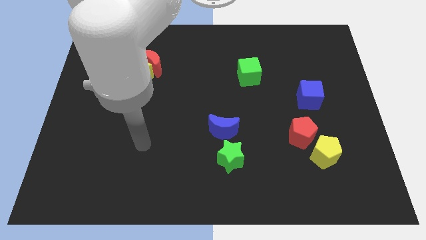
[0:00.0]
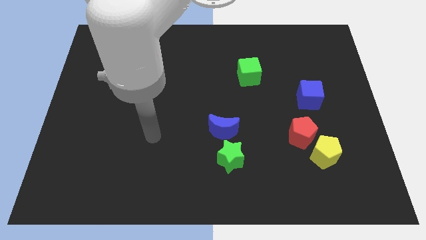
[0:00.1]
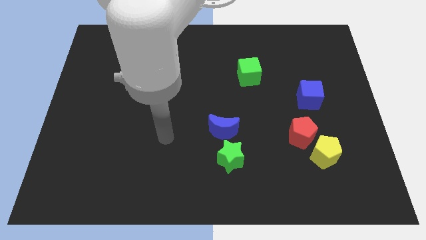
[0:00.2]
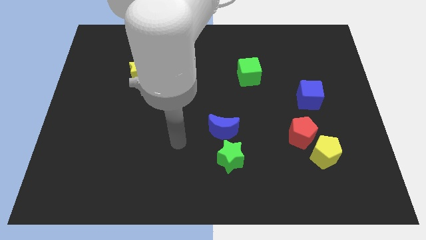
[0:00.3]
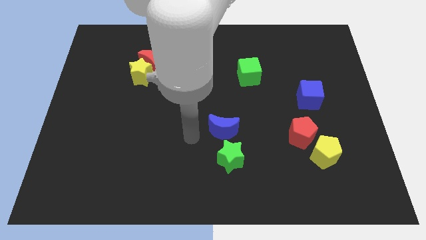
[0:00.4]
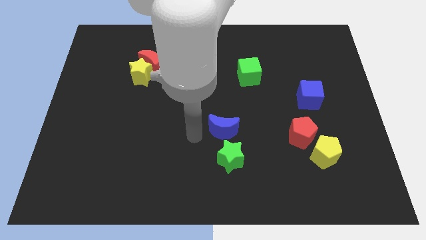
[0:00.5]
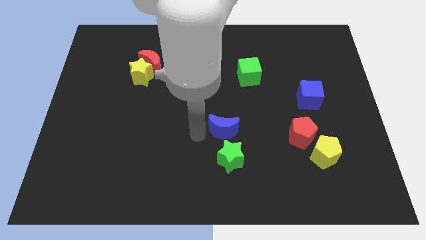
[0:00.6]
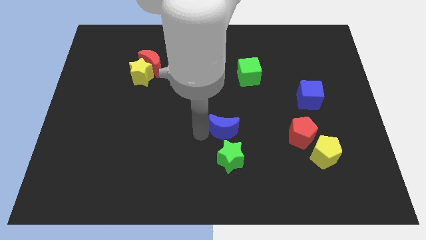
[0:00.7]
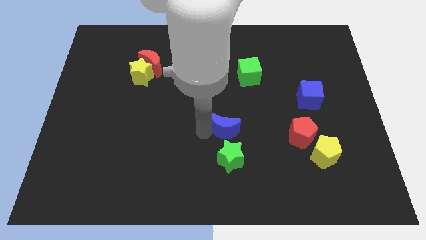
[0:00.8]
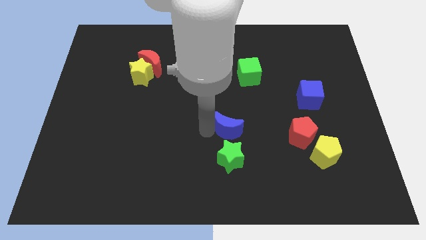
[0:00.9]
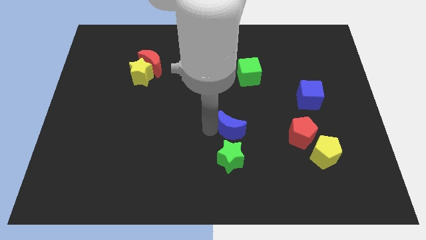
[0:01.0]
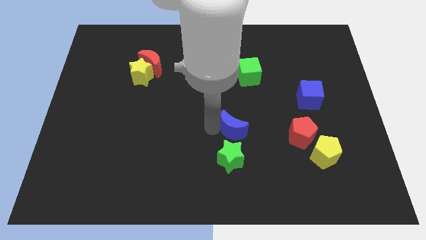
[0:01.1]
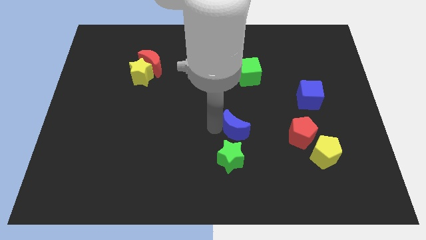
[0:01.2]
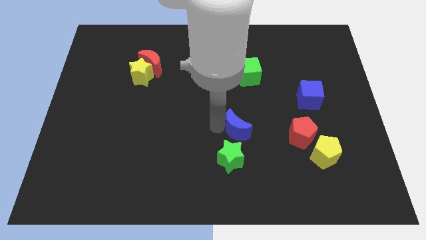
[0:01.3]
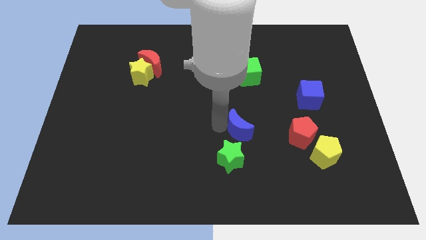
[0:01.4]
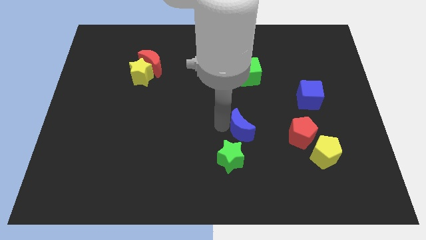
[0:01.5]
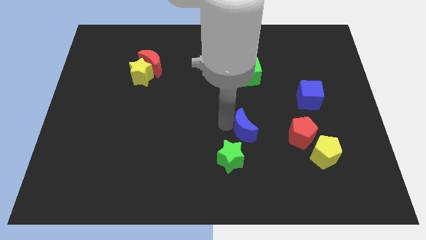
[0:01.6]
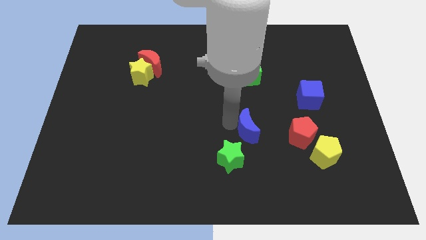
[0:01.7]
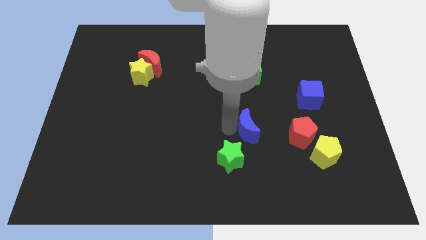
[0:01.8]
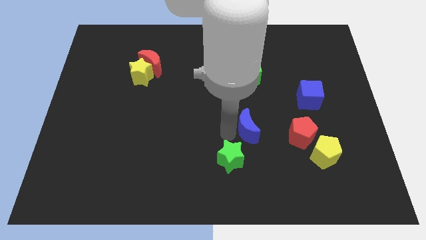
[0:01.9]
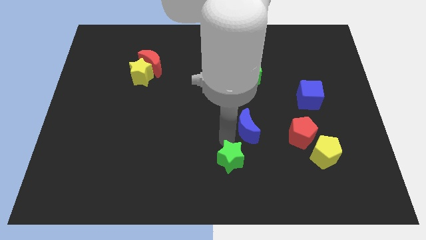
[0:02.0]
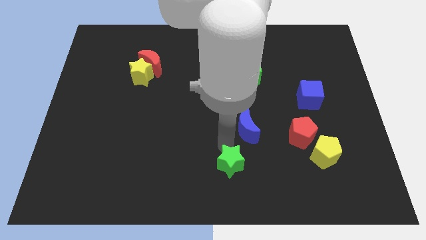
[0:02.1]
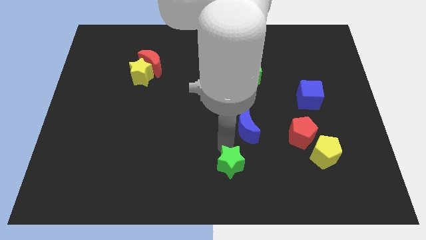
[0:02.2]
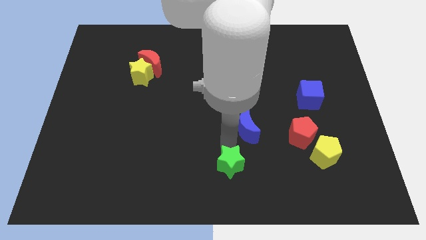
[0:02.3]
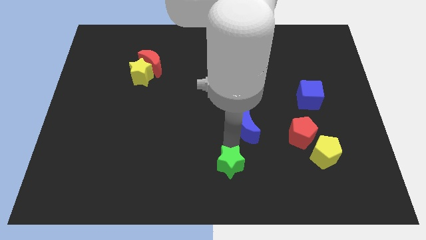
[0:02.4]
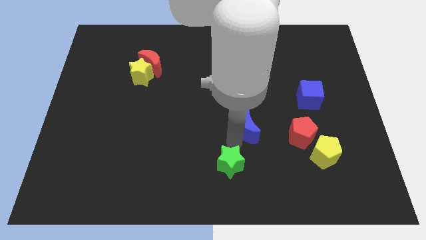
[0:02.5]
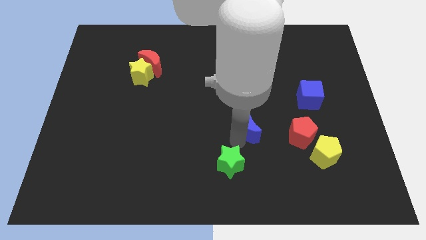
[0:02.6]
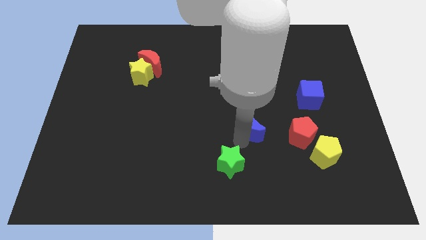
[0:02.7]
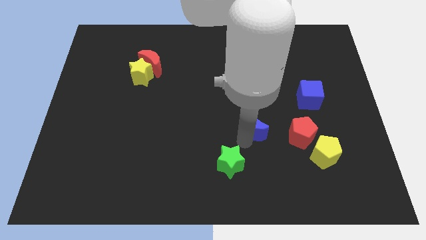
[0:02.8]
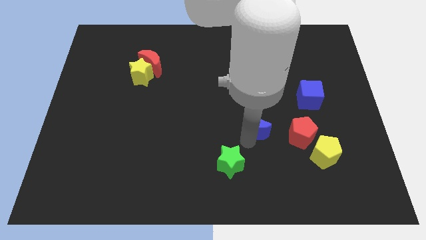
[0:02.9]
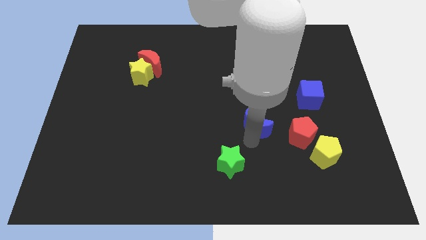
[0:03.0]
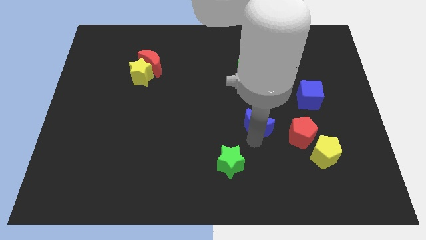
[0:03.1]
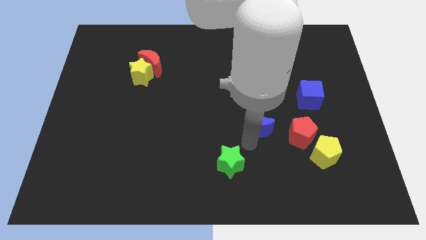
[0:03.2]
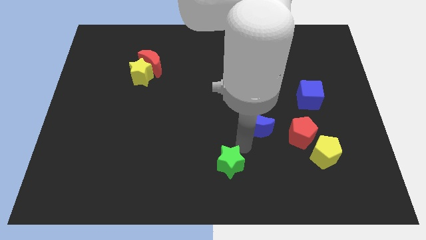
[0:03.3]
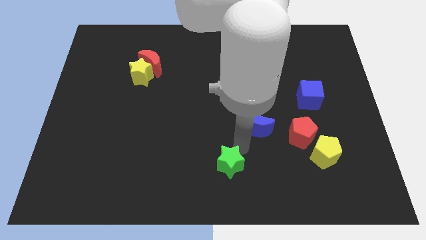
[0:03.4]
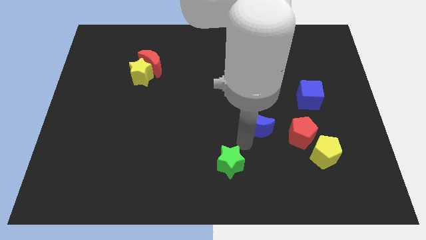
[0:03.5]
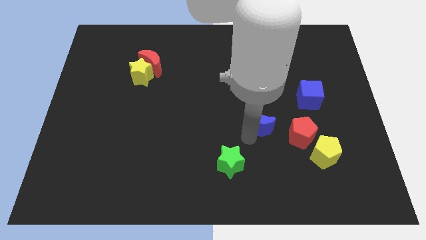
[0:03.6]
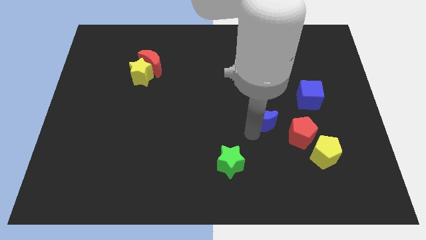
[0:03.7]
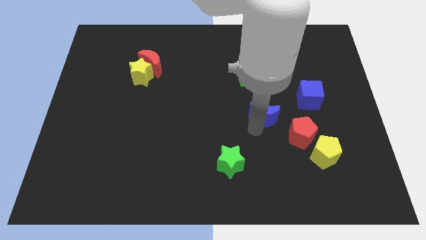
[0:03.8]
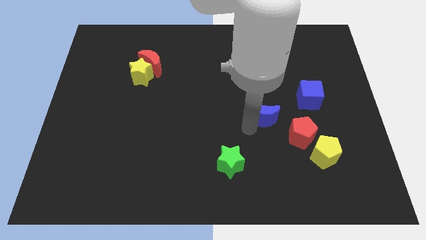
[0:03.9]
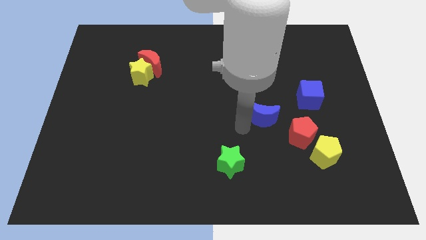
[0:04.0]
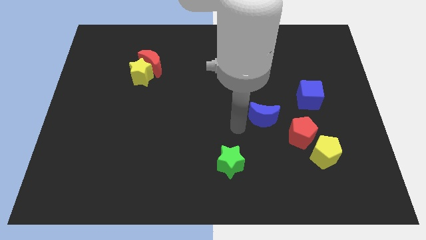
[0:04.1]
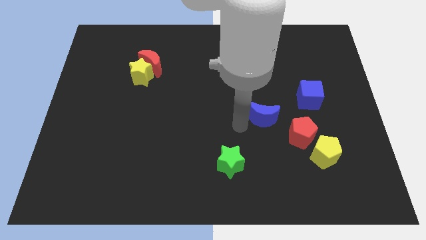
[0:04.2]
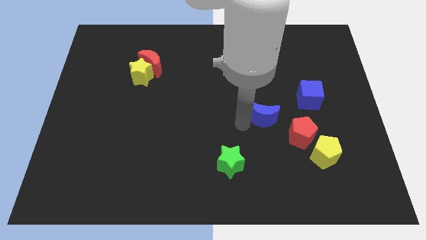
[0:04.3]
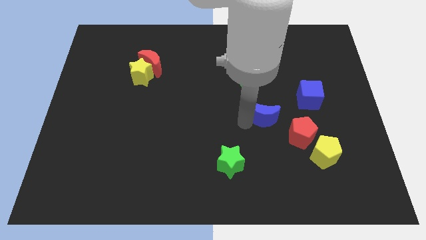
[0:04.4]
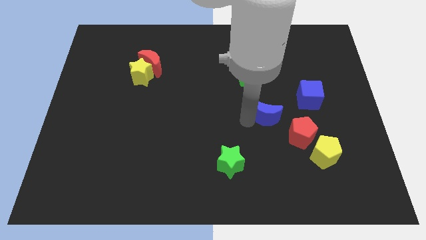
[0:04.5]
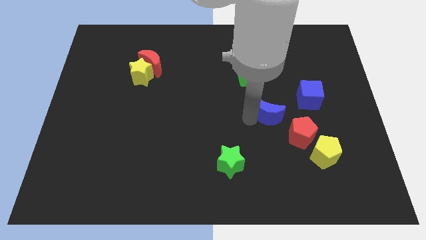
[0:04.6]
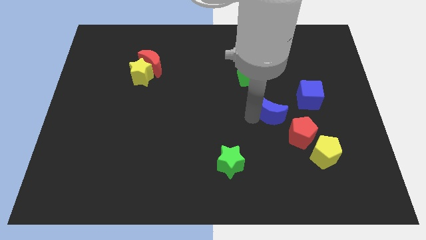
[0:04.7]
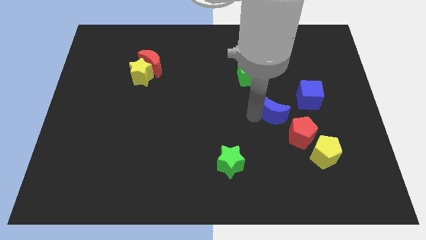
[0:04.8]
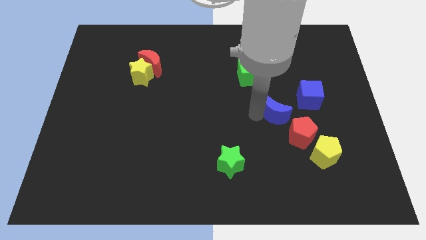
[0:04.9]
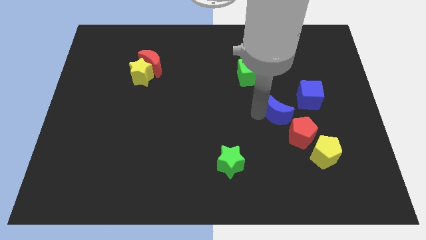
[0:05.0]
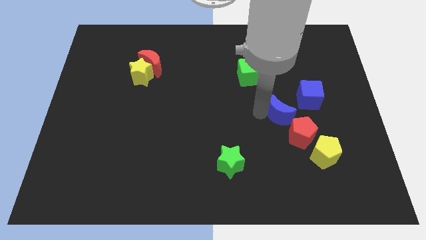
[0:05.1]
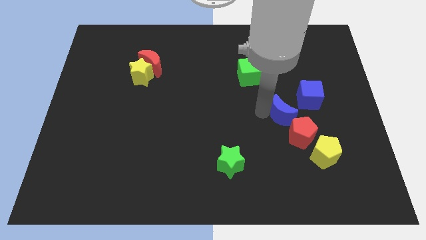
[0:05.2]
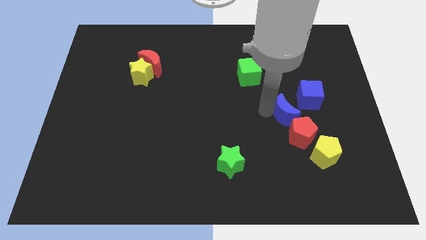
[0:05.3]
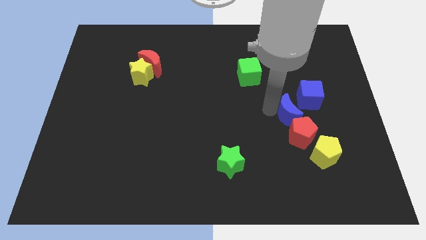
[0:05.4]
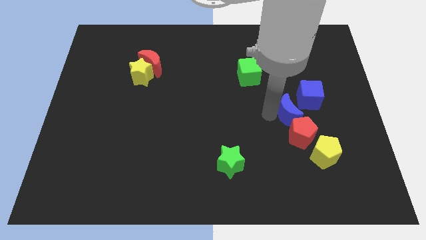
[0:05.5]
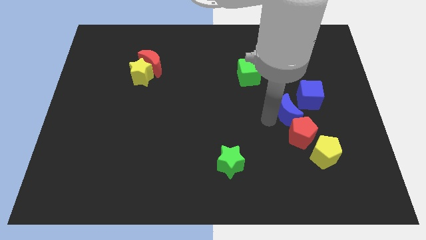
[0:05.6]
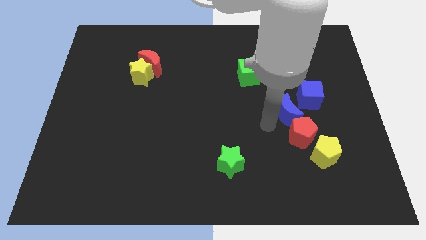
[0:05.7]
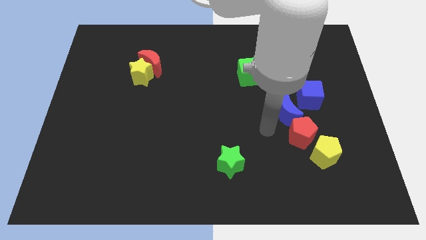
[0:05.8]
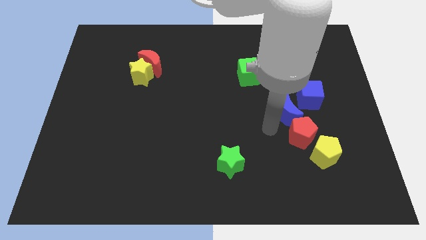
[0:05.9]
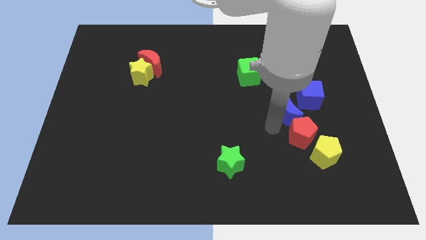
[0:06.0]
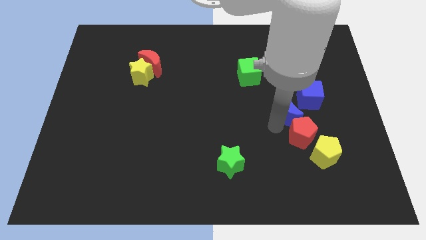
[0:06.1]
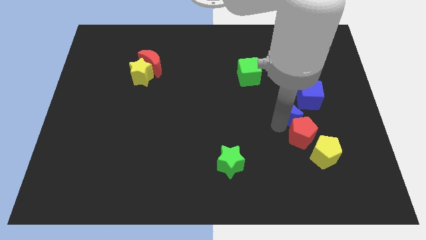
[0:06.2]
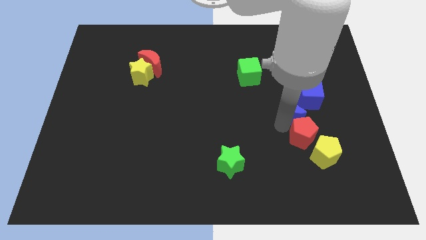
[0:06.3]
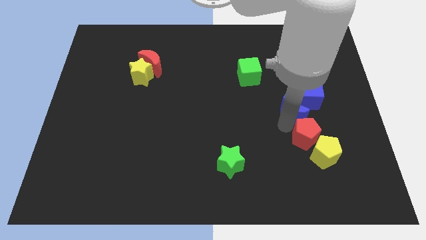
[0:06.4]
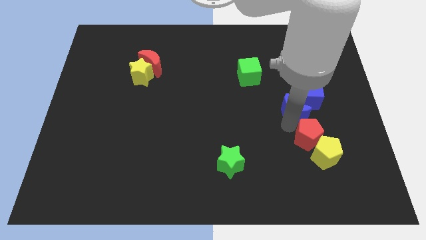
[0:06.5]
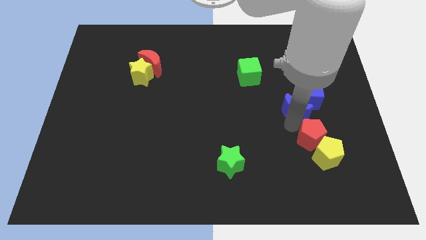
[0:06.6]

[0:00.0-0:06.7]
put the blue moon towards the blue cube
